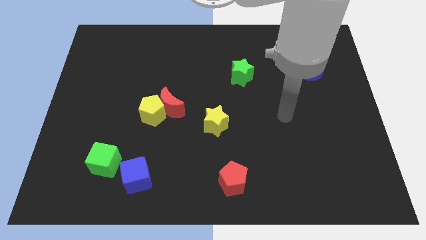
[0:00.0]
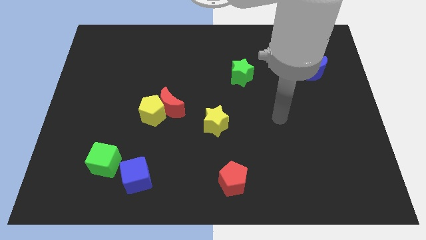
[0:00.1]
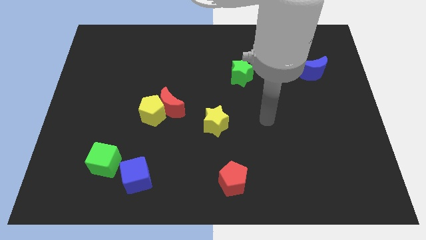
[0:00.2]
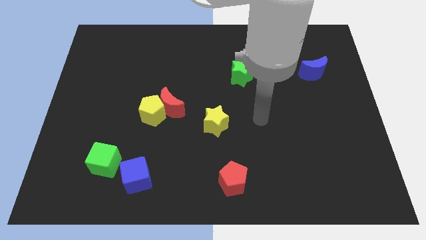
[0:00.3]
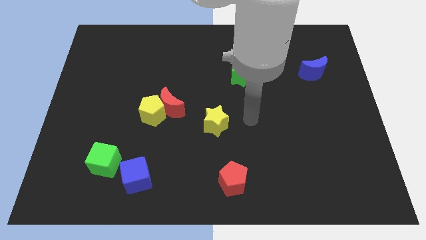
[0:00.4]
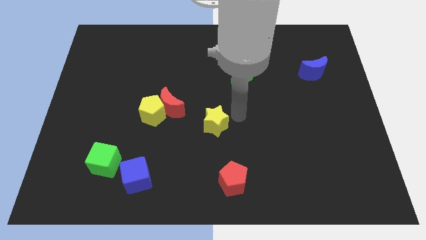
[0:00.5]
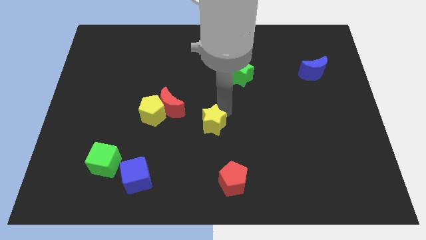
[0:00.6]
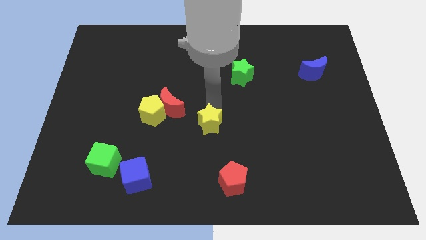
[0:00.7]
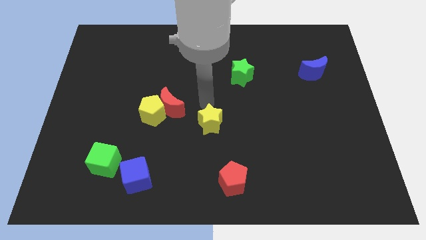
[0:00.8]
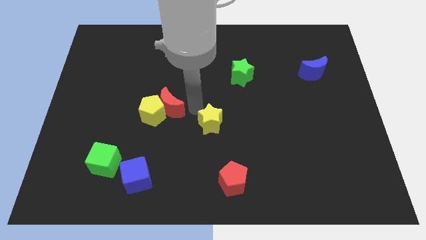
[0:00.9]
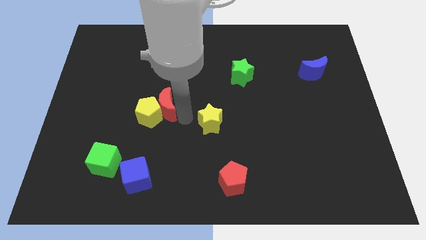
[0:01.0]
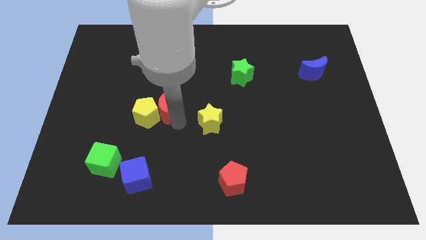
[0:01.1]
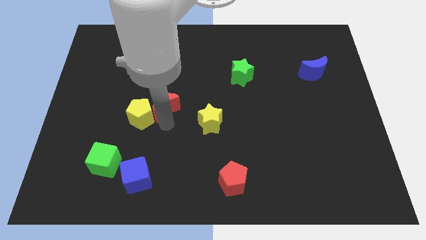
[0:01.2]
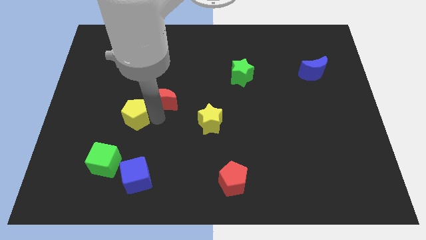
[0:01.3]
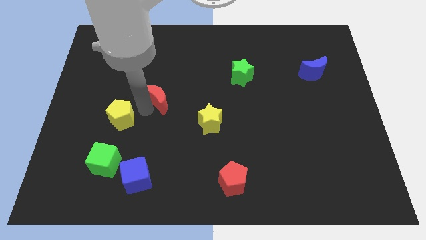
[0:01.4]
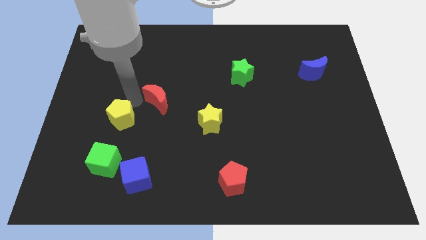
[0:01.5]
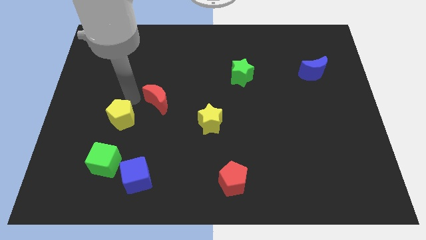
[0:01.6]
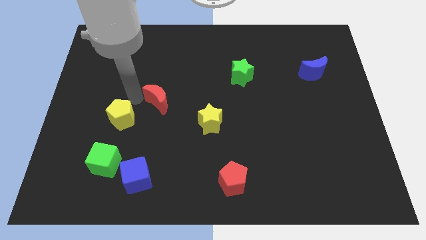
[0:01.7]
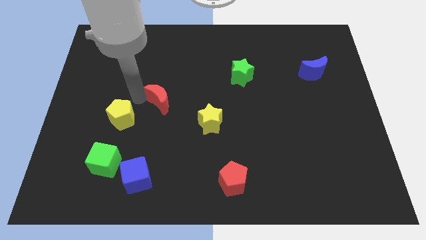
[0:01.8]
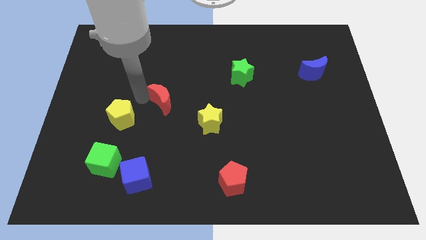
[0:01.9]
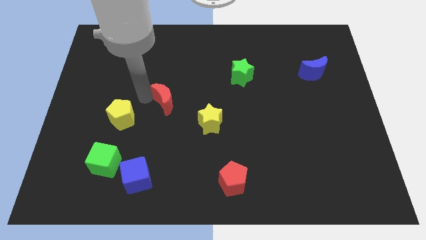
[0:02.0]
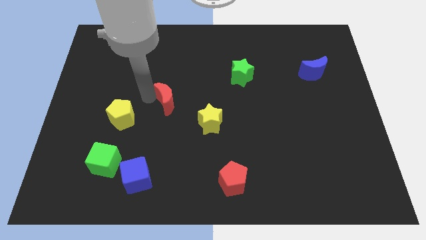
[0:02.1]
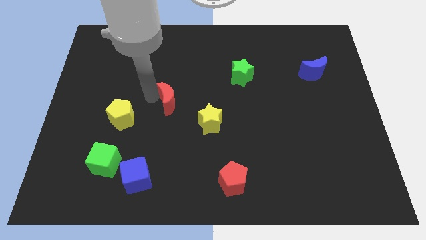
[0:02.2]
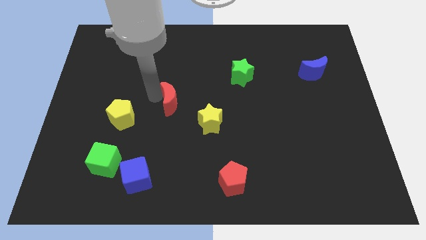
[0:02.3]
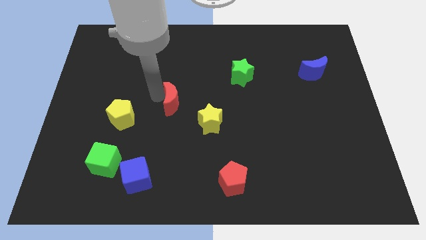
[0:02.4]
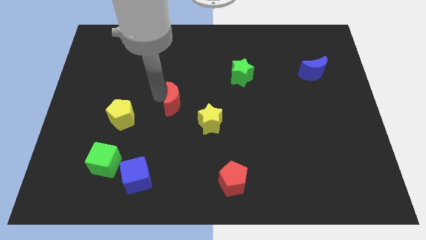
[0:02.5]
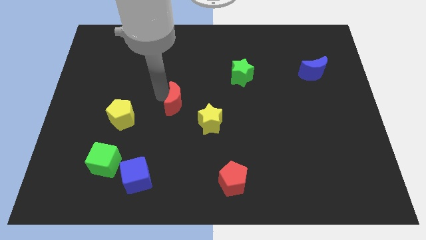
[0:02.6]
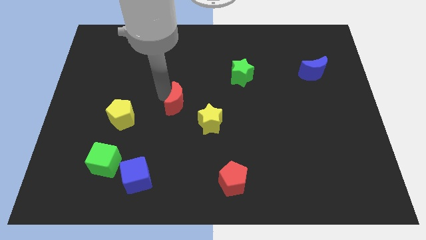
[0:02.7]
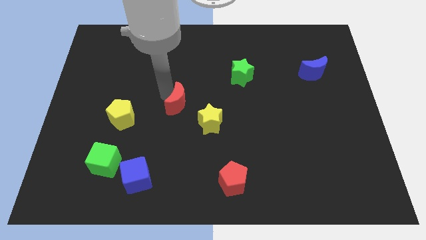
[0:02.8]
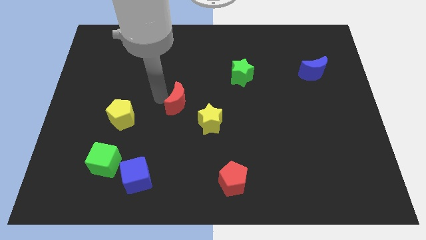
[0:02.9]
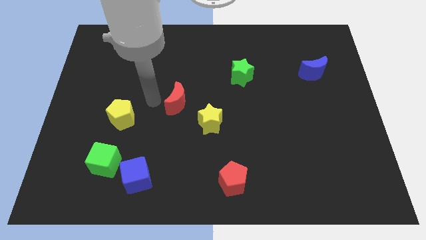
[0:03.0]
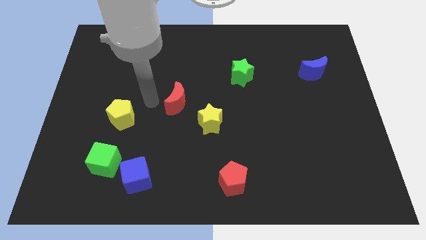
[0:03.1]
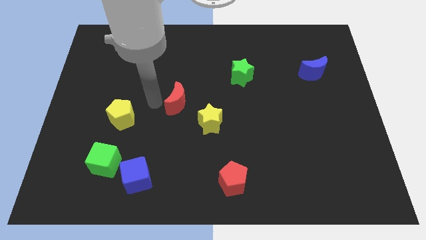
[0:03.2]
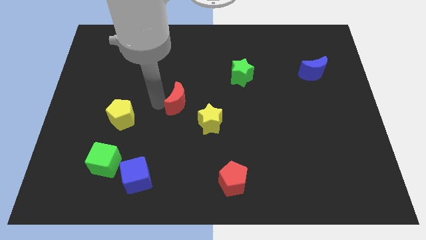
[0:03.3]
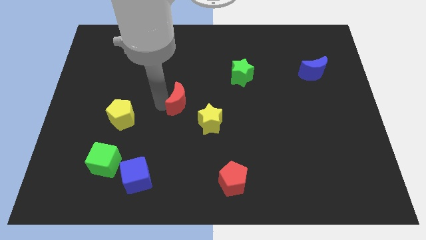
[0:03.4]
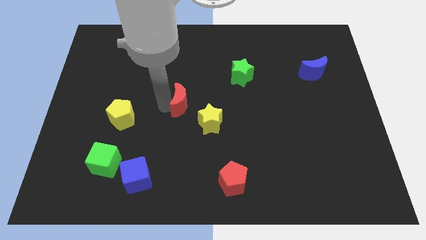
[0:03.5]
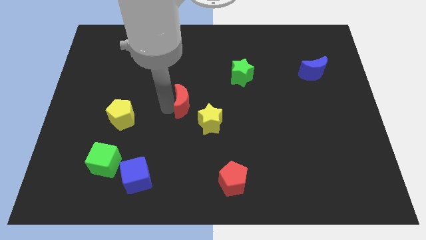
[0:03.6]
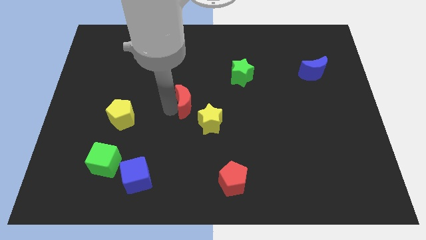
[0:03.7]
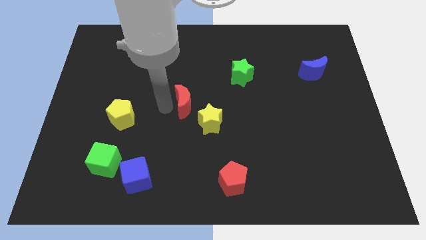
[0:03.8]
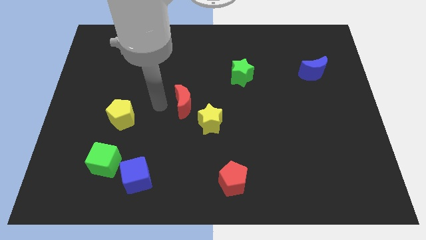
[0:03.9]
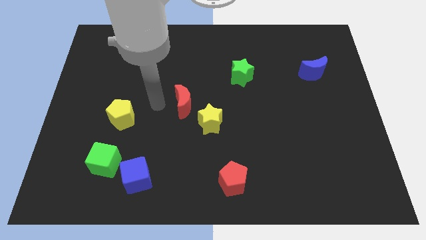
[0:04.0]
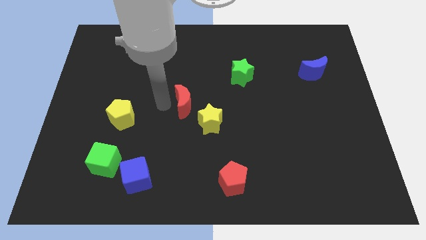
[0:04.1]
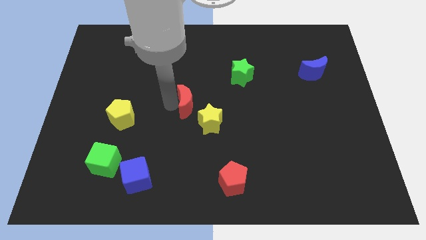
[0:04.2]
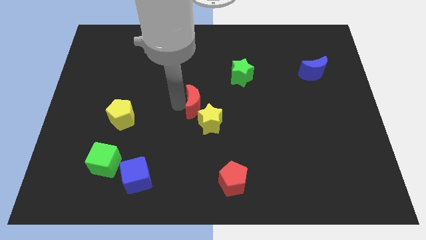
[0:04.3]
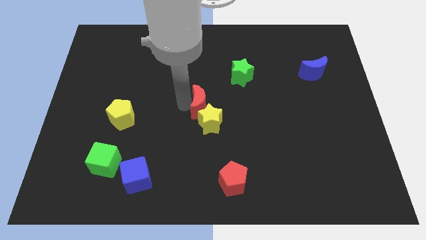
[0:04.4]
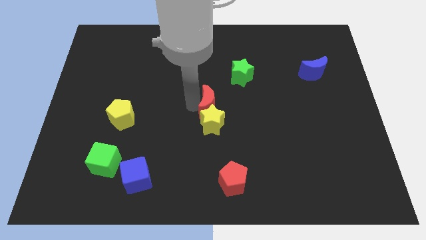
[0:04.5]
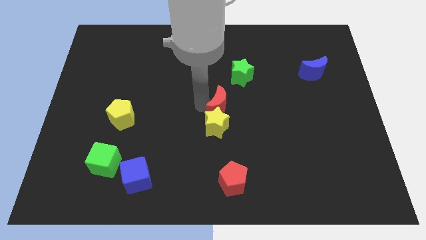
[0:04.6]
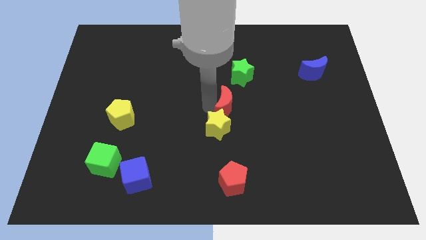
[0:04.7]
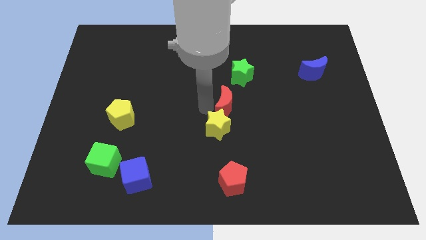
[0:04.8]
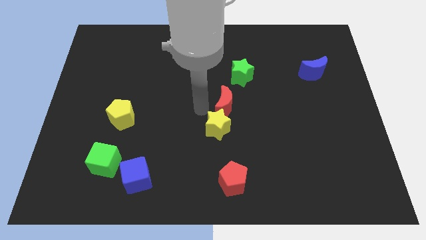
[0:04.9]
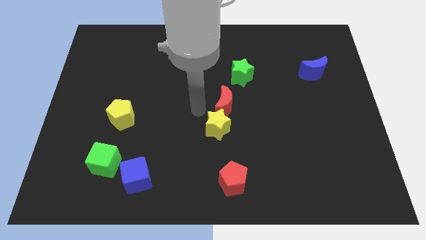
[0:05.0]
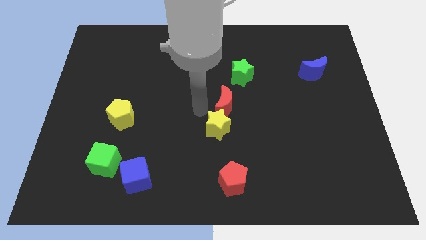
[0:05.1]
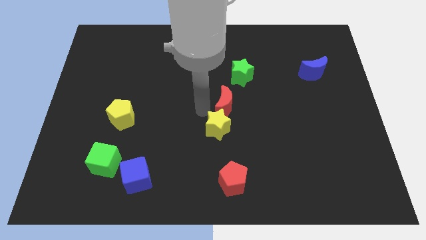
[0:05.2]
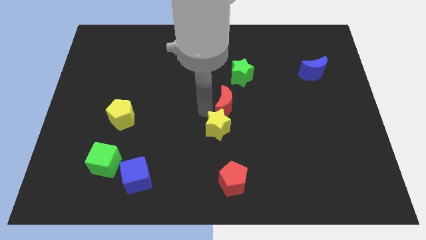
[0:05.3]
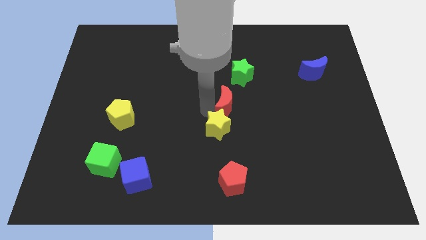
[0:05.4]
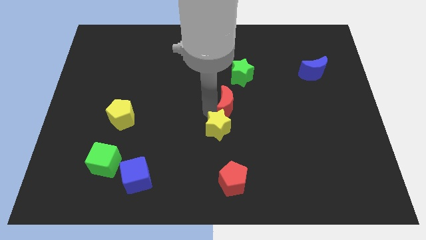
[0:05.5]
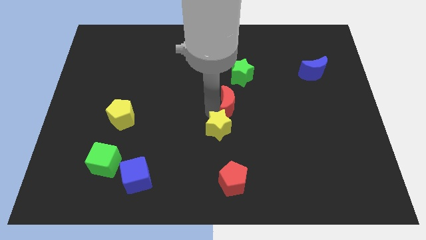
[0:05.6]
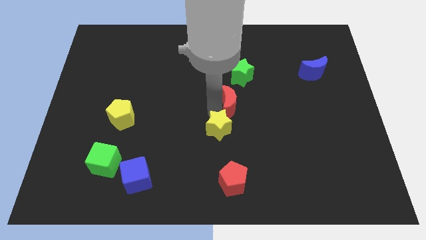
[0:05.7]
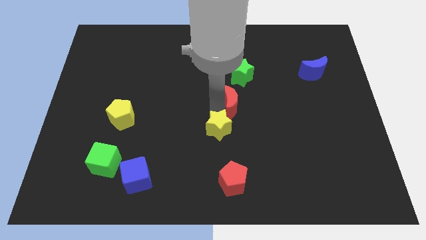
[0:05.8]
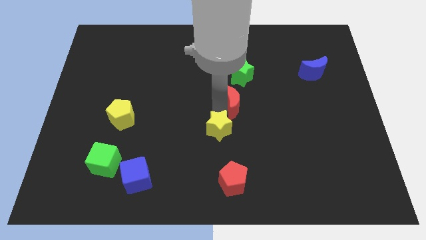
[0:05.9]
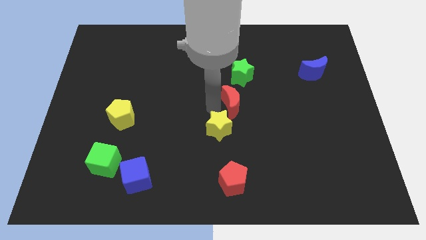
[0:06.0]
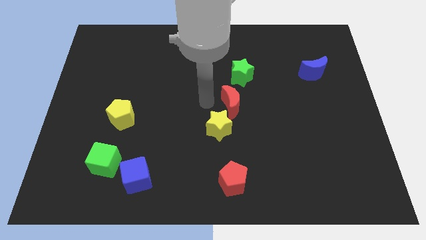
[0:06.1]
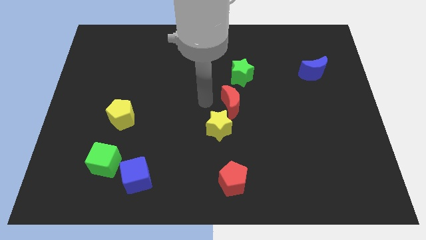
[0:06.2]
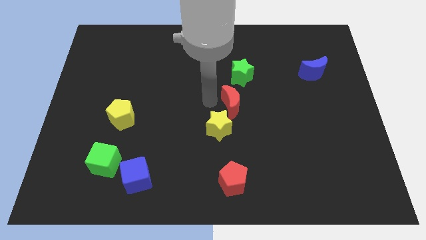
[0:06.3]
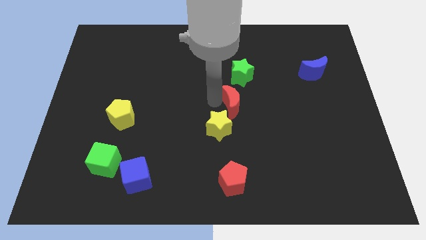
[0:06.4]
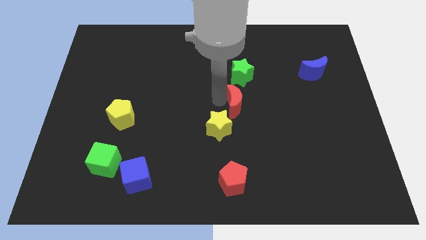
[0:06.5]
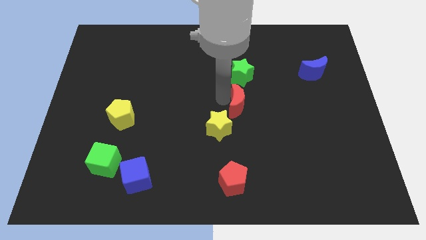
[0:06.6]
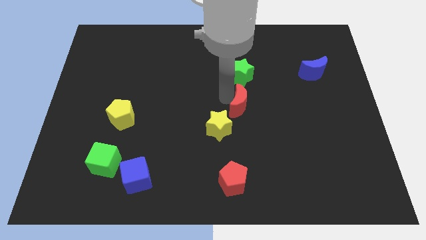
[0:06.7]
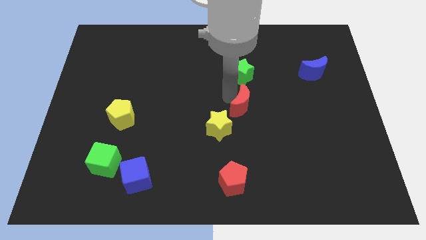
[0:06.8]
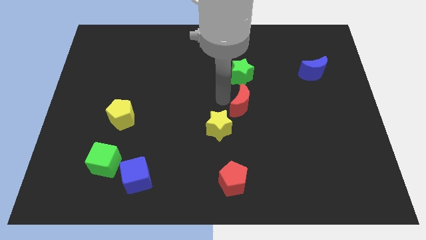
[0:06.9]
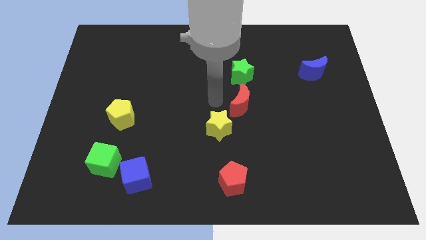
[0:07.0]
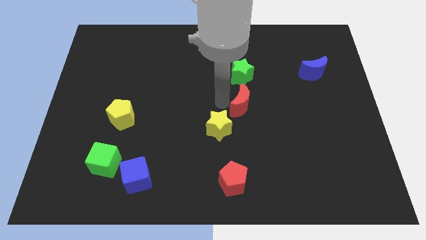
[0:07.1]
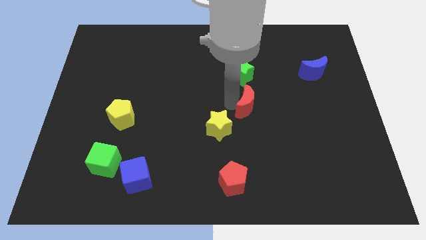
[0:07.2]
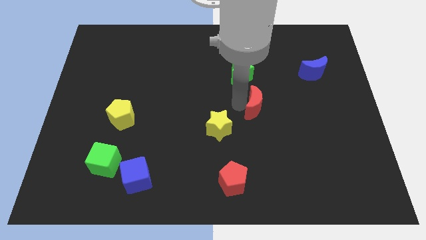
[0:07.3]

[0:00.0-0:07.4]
slide the red moon to the right

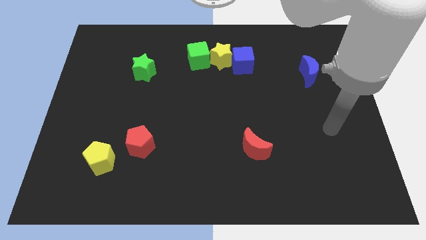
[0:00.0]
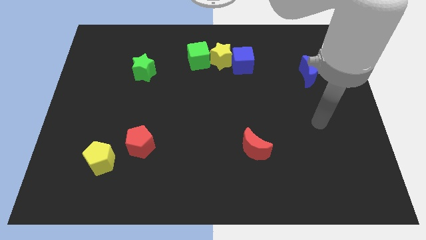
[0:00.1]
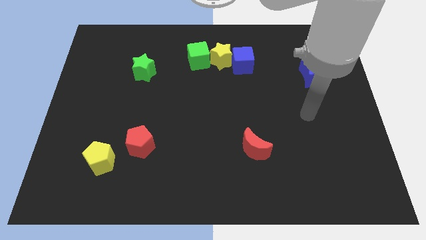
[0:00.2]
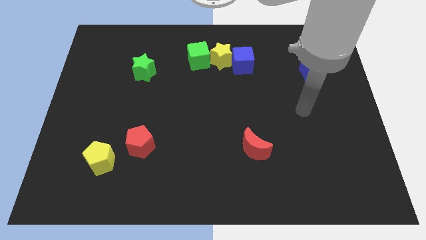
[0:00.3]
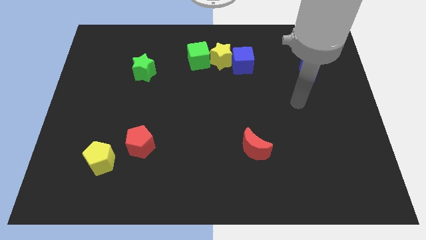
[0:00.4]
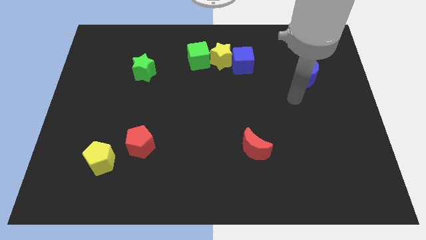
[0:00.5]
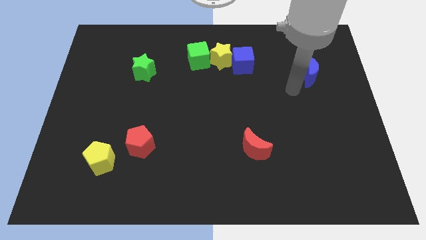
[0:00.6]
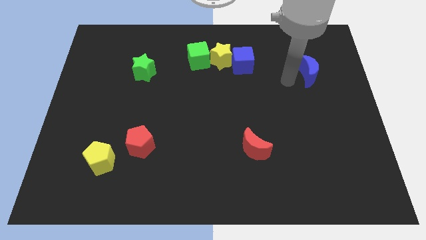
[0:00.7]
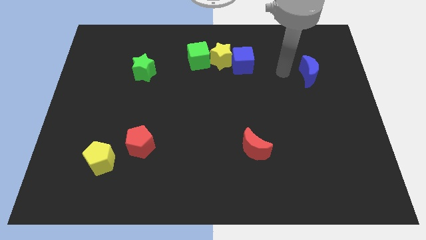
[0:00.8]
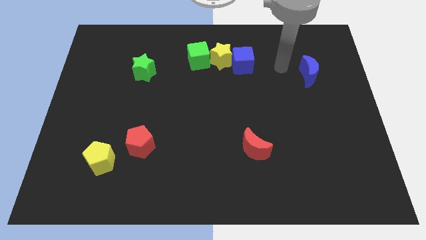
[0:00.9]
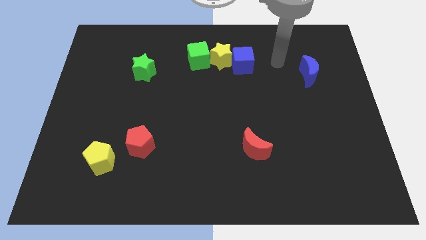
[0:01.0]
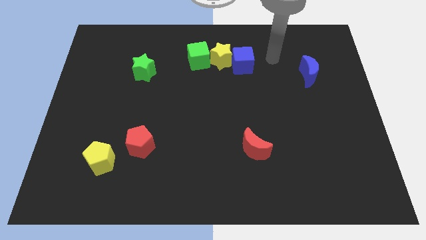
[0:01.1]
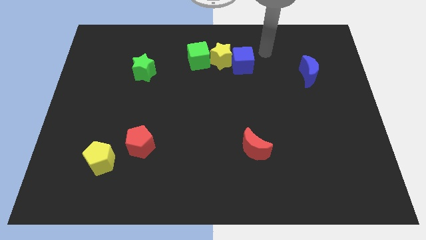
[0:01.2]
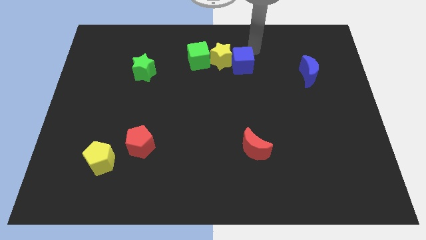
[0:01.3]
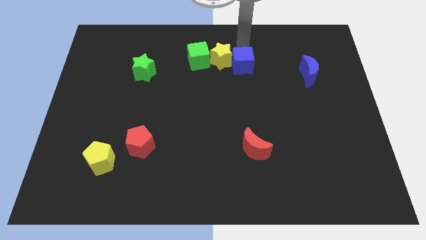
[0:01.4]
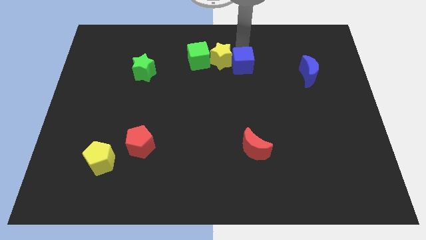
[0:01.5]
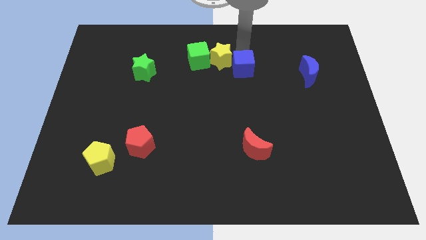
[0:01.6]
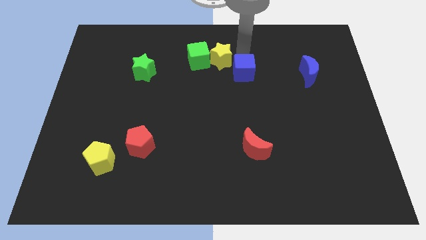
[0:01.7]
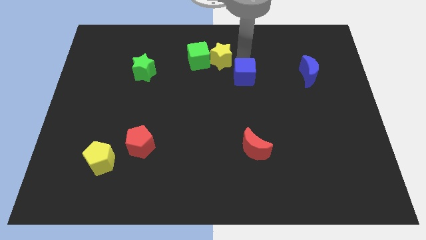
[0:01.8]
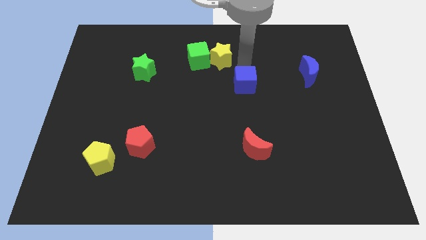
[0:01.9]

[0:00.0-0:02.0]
slide the blue cube a bit down
